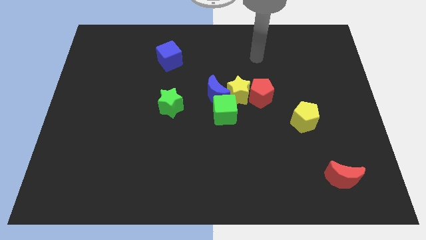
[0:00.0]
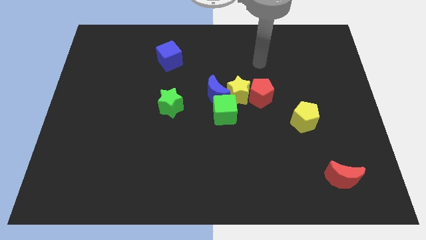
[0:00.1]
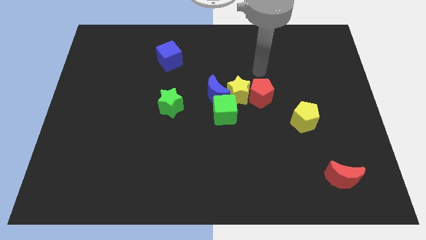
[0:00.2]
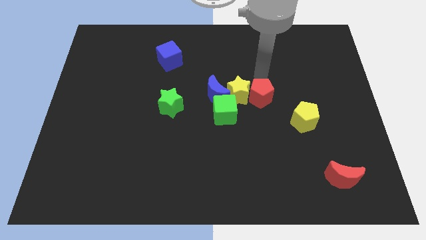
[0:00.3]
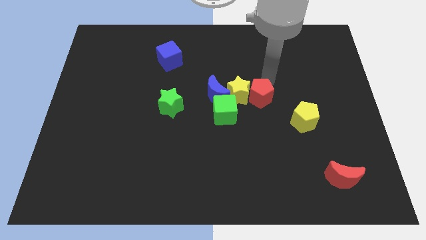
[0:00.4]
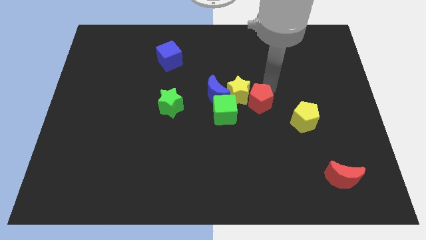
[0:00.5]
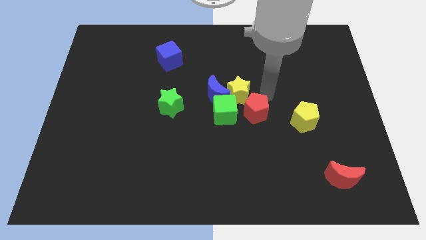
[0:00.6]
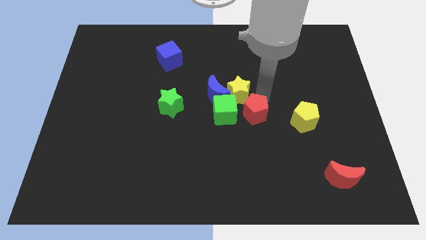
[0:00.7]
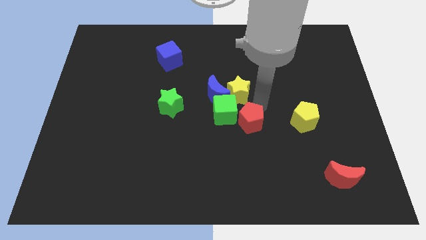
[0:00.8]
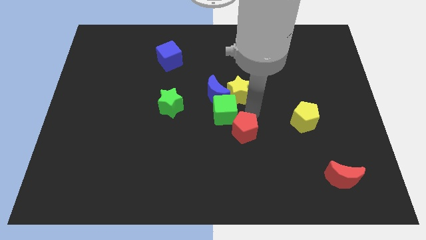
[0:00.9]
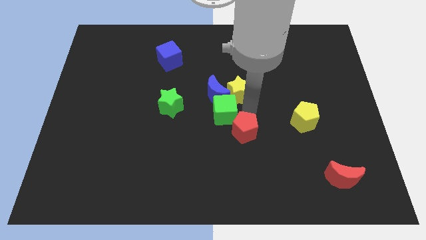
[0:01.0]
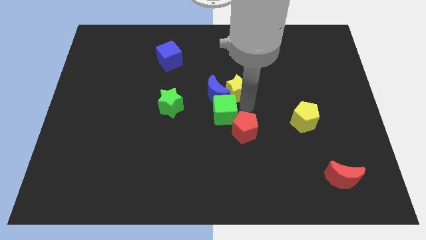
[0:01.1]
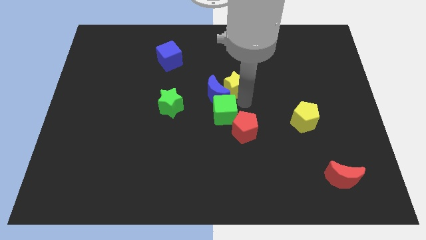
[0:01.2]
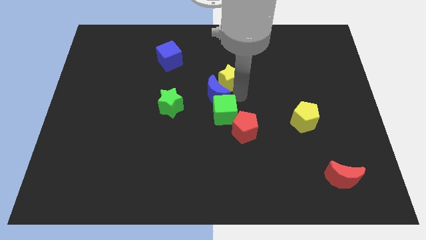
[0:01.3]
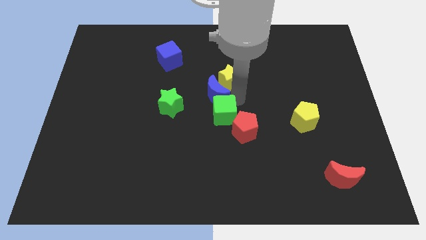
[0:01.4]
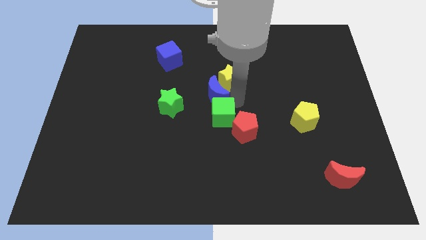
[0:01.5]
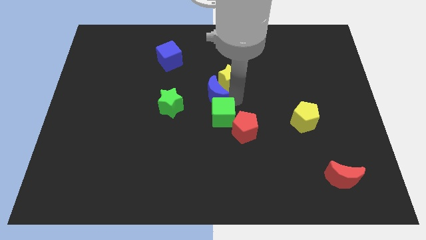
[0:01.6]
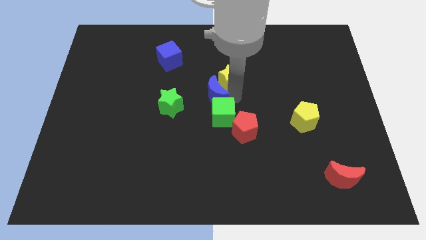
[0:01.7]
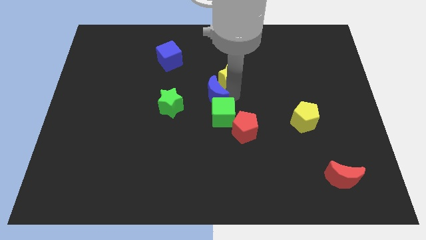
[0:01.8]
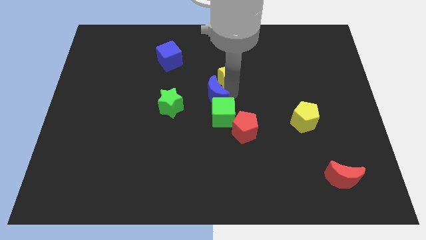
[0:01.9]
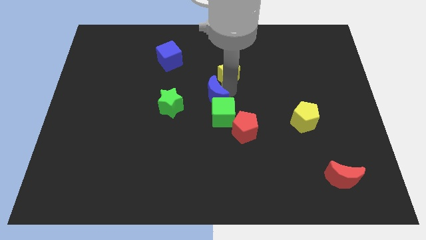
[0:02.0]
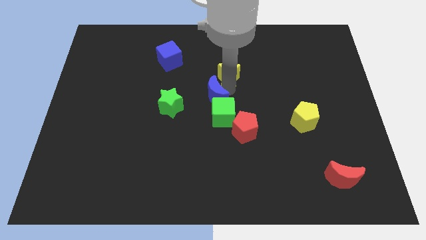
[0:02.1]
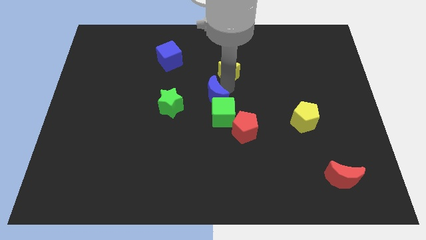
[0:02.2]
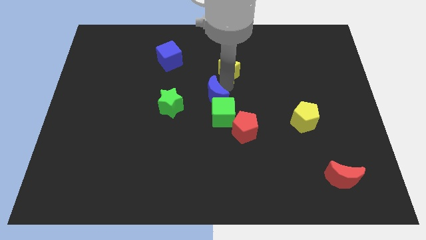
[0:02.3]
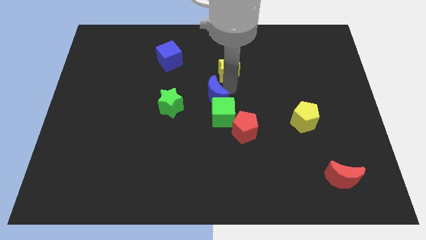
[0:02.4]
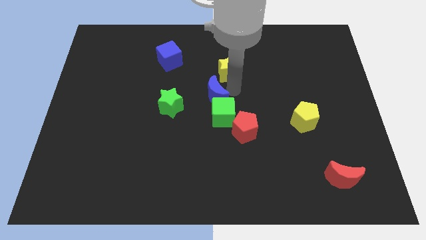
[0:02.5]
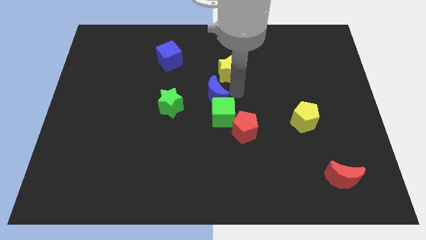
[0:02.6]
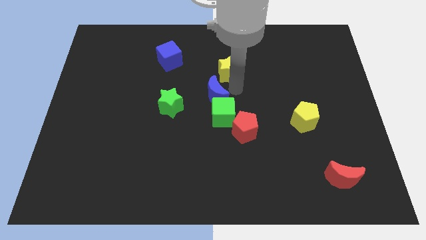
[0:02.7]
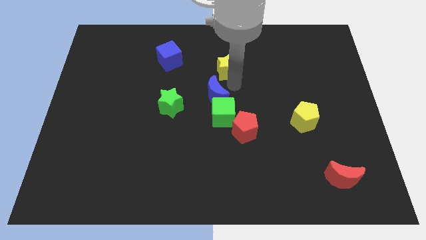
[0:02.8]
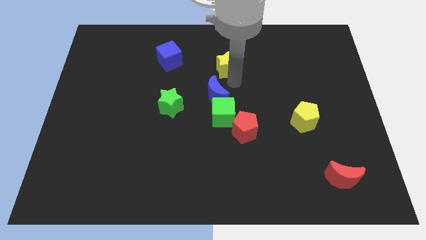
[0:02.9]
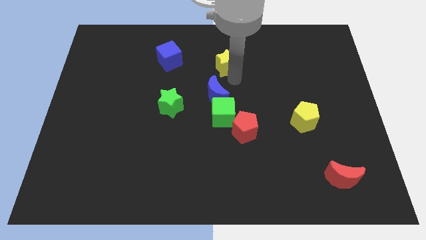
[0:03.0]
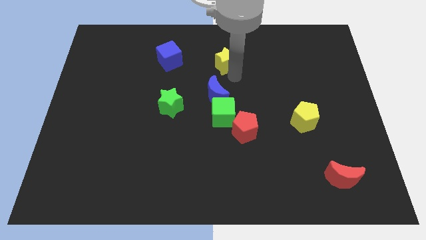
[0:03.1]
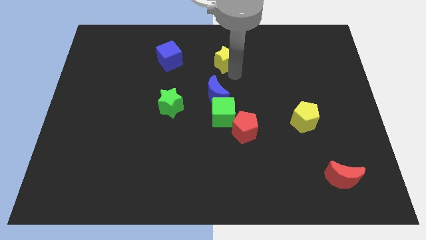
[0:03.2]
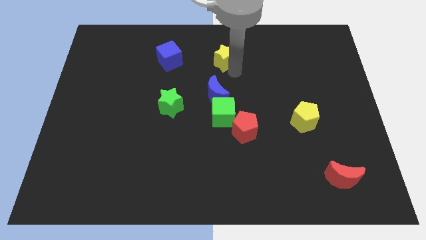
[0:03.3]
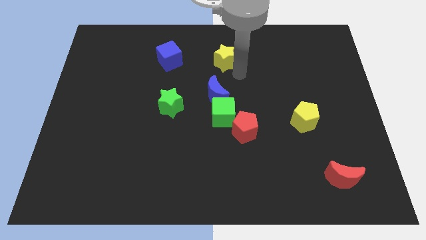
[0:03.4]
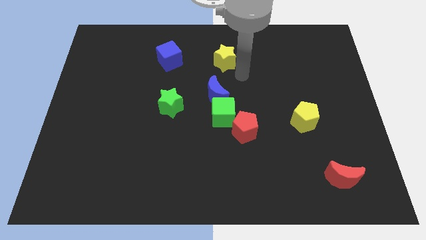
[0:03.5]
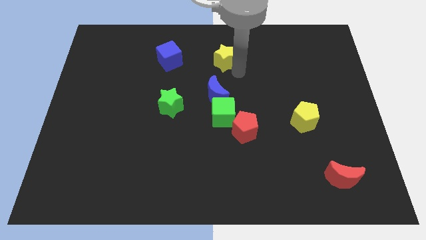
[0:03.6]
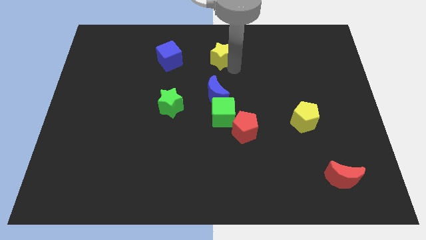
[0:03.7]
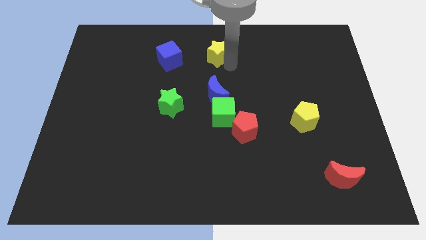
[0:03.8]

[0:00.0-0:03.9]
push the yellow star to the towards your base

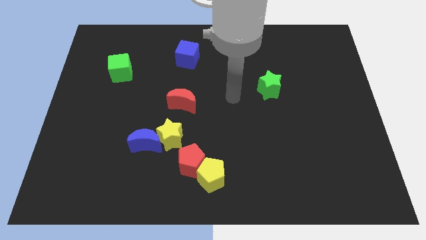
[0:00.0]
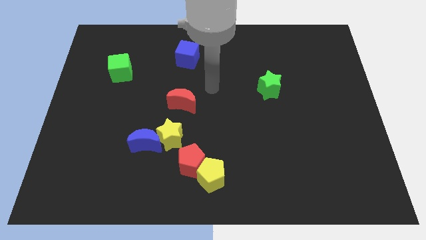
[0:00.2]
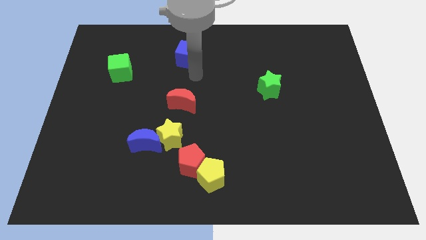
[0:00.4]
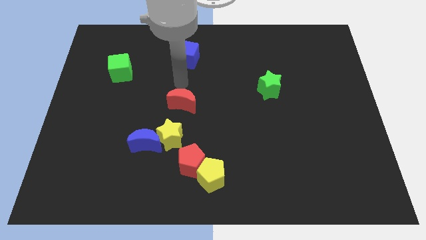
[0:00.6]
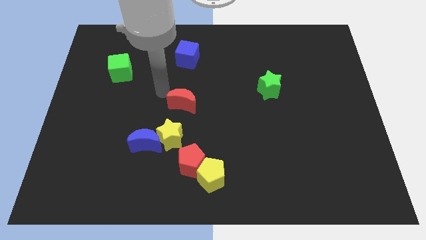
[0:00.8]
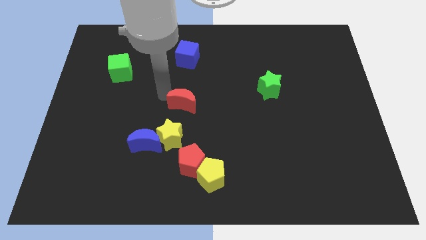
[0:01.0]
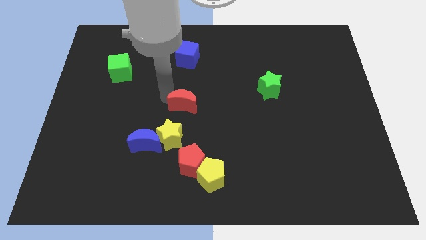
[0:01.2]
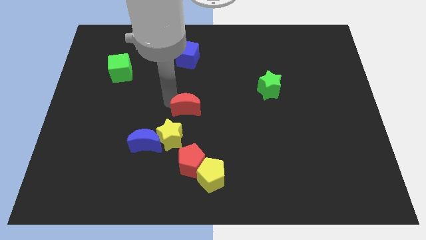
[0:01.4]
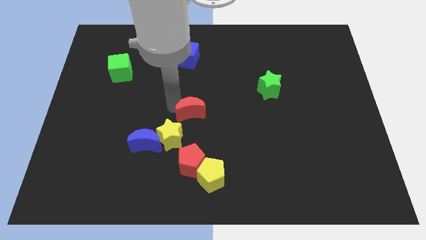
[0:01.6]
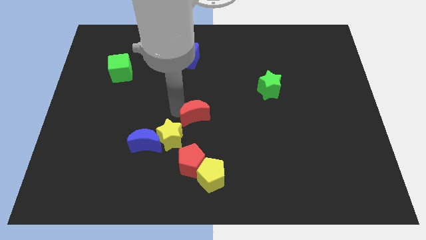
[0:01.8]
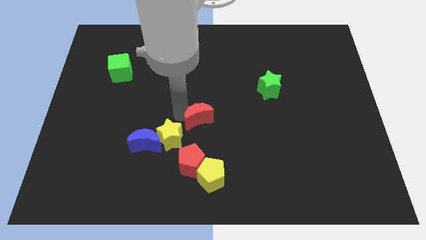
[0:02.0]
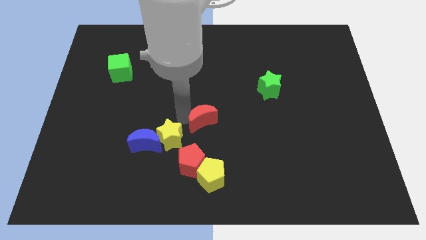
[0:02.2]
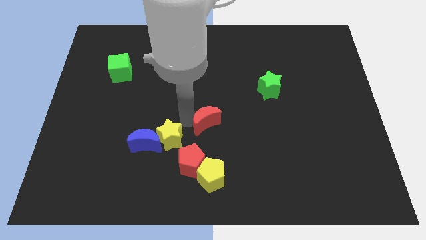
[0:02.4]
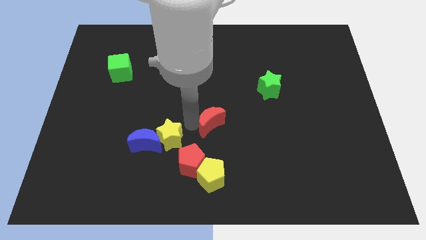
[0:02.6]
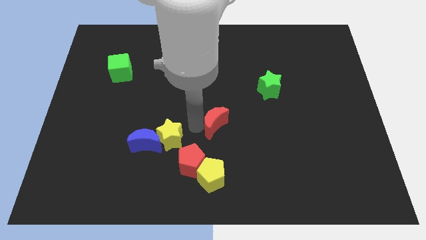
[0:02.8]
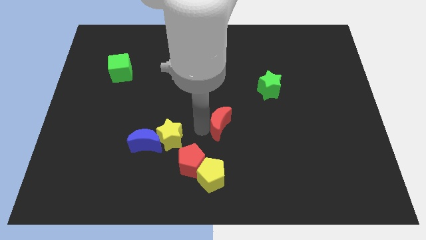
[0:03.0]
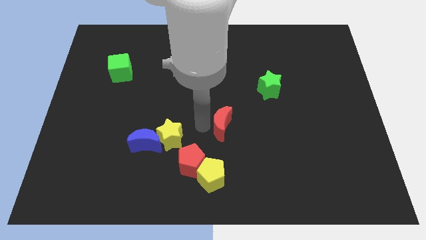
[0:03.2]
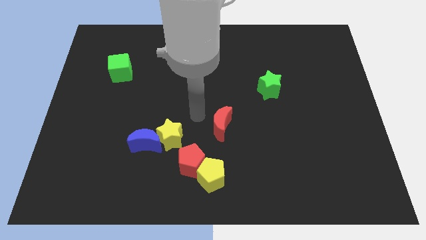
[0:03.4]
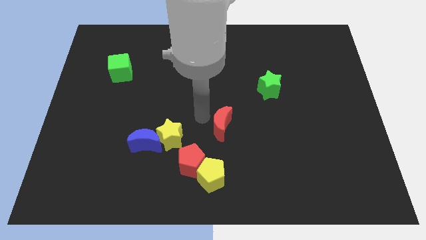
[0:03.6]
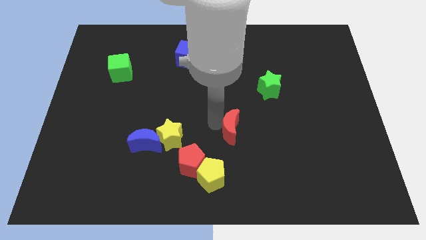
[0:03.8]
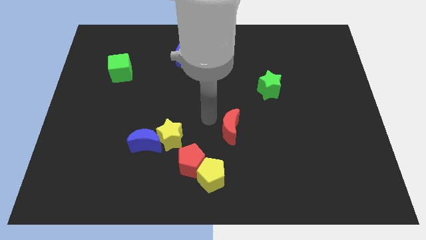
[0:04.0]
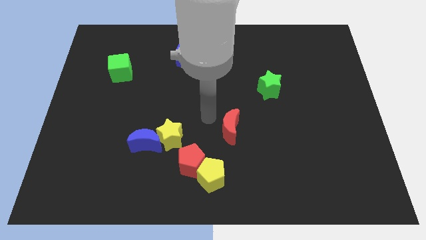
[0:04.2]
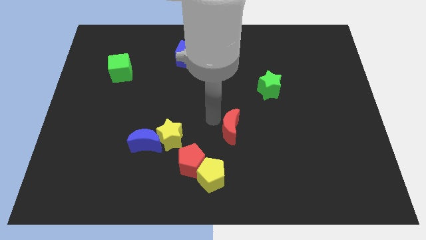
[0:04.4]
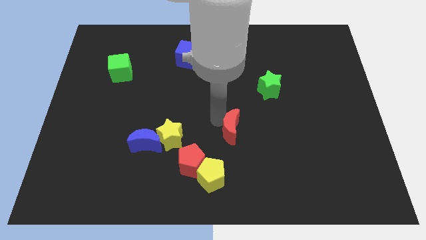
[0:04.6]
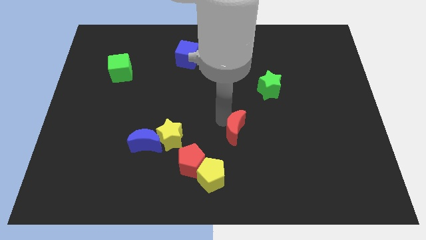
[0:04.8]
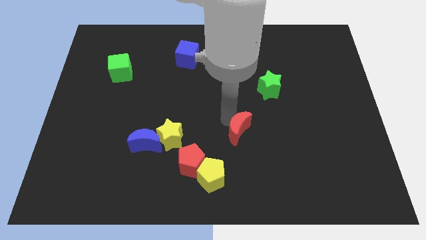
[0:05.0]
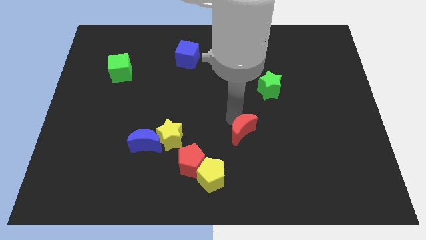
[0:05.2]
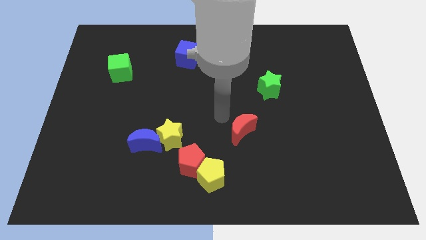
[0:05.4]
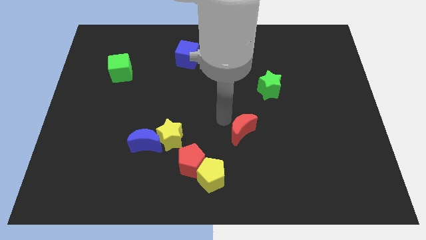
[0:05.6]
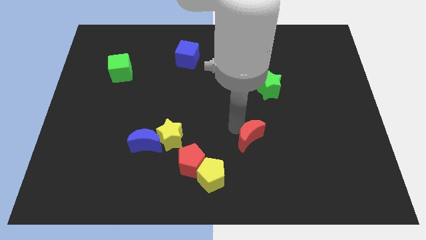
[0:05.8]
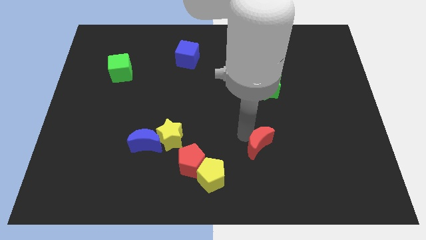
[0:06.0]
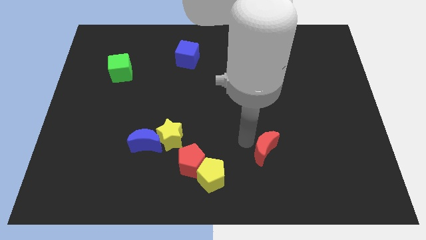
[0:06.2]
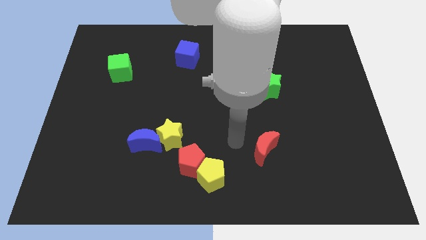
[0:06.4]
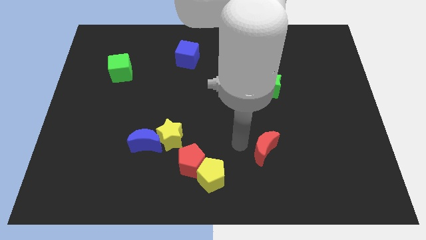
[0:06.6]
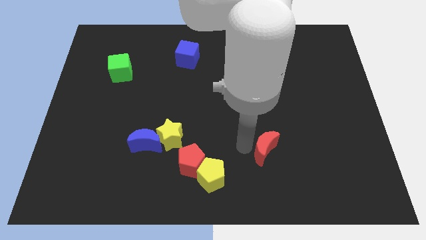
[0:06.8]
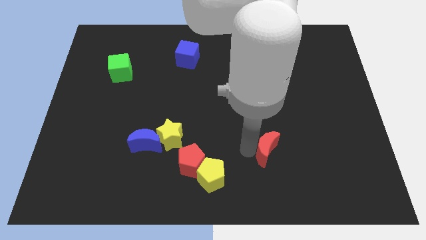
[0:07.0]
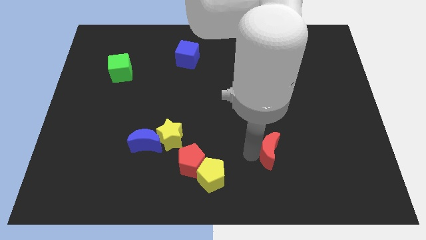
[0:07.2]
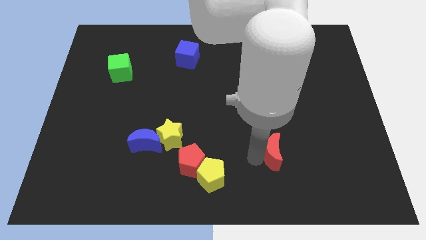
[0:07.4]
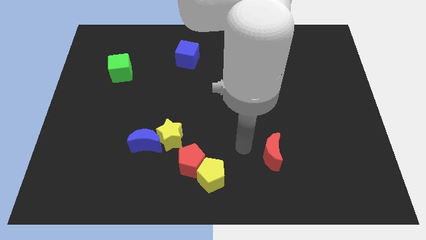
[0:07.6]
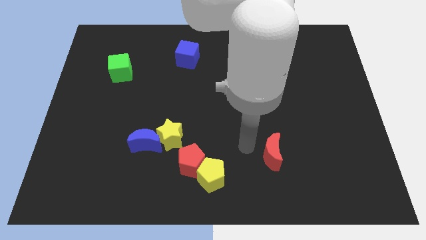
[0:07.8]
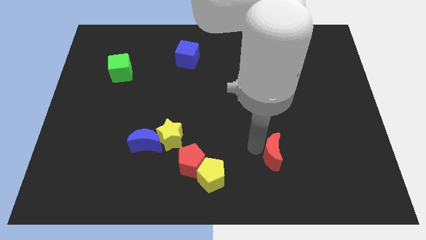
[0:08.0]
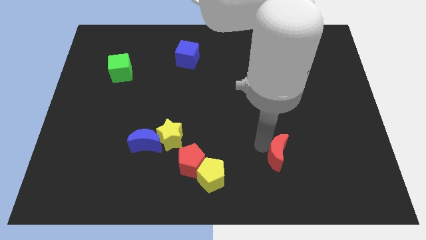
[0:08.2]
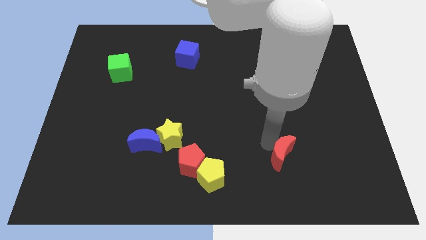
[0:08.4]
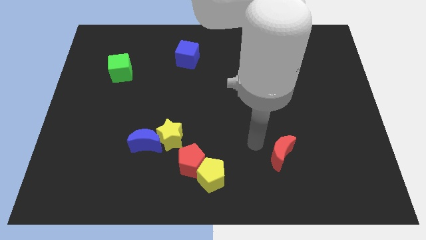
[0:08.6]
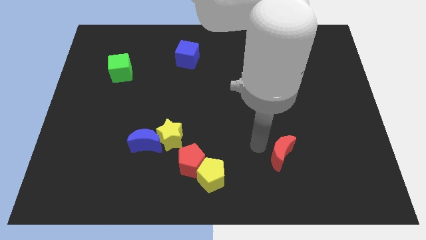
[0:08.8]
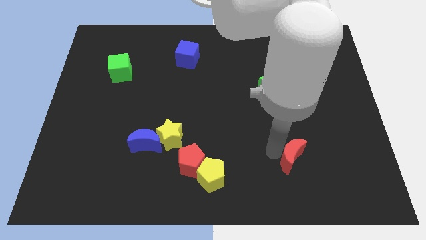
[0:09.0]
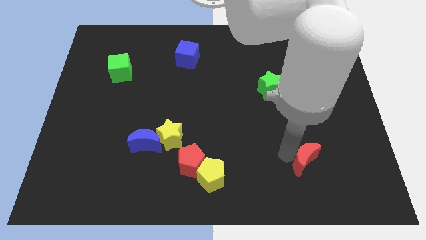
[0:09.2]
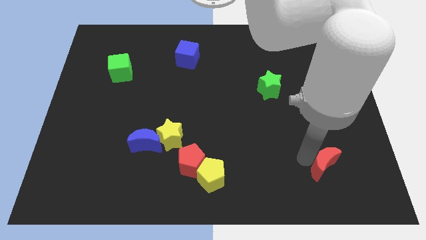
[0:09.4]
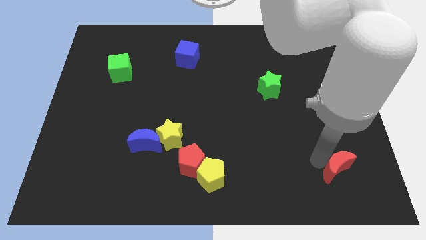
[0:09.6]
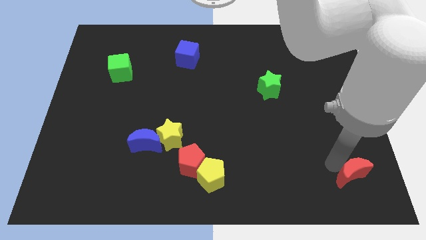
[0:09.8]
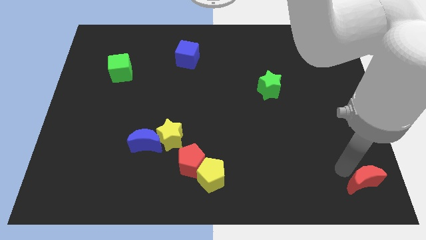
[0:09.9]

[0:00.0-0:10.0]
put the red moon to the bottom right
